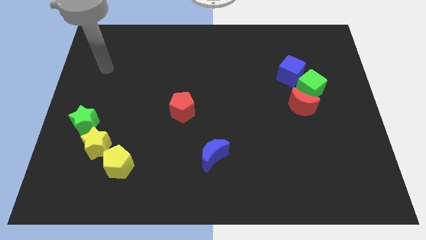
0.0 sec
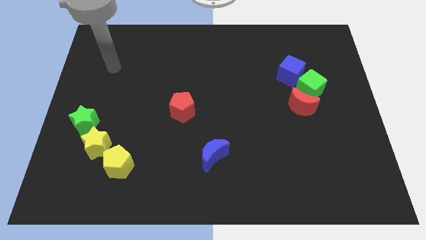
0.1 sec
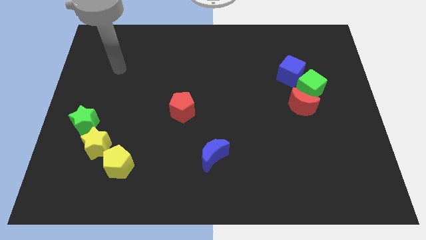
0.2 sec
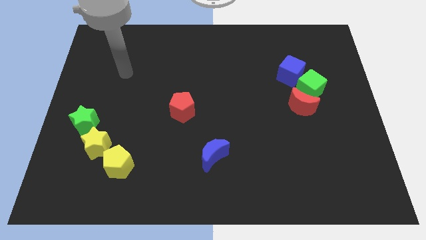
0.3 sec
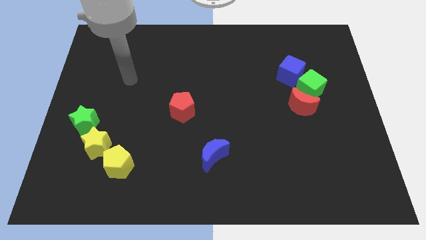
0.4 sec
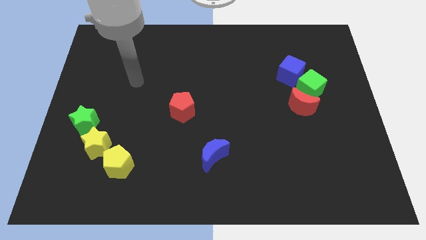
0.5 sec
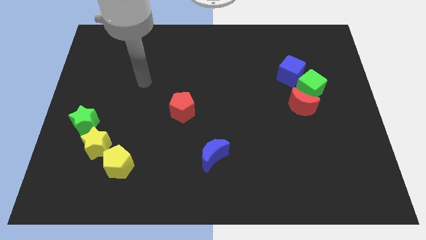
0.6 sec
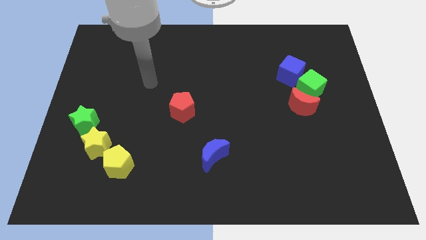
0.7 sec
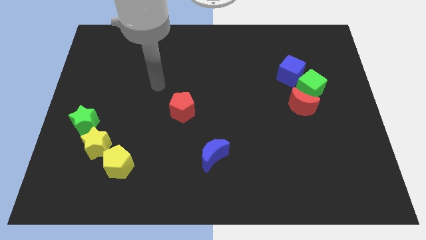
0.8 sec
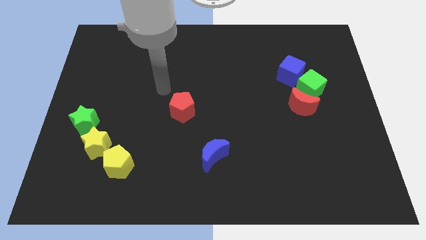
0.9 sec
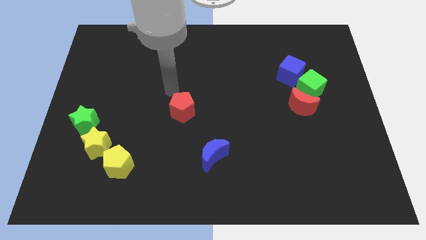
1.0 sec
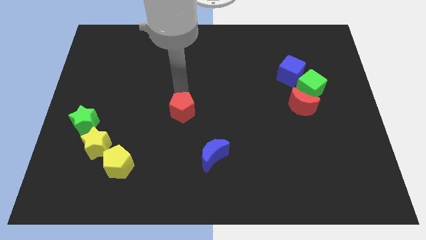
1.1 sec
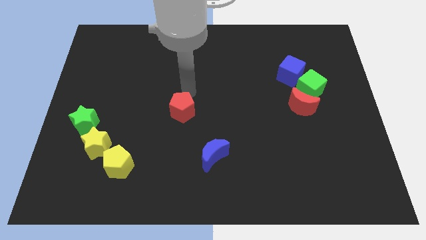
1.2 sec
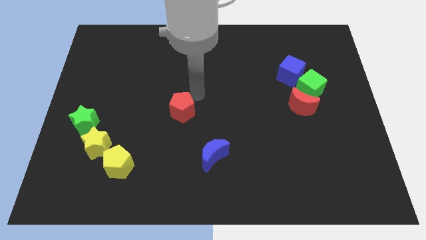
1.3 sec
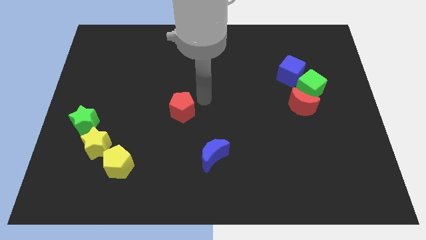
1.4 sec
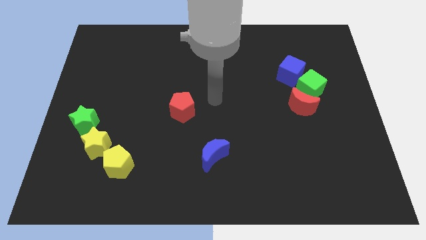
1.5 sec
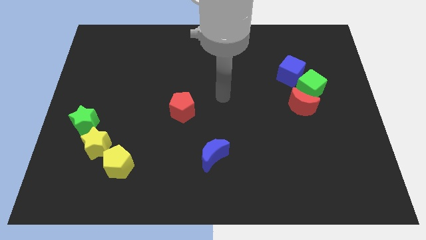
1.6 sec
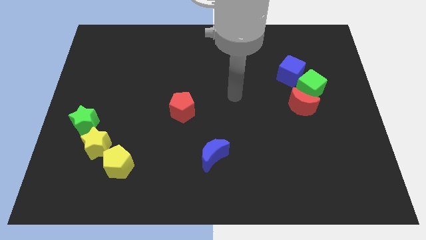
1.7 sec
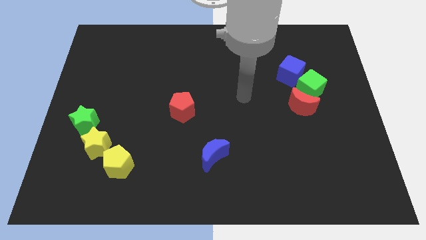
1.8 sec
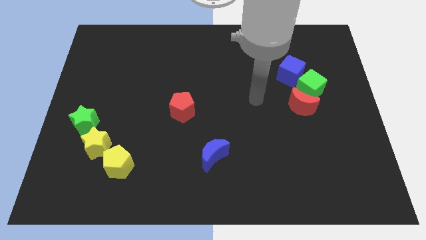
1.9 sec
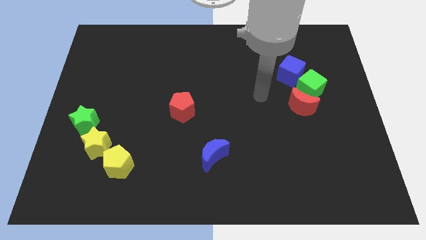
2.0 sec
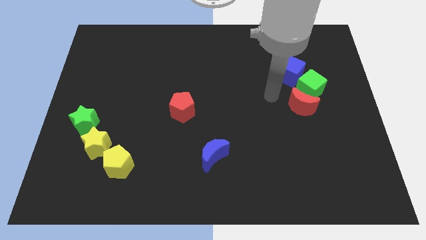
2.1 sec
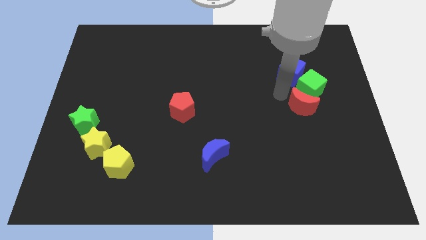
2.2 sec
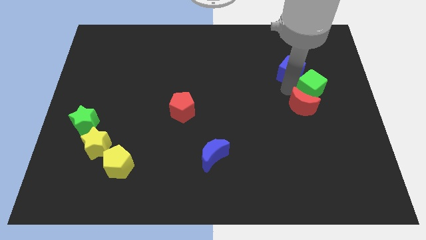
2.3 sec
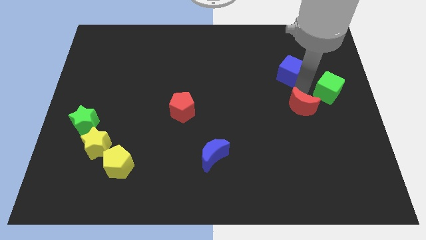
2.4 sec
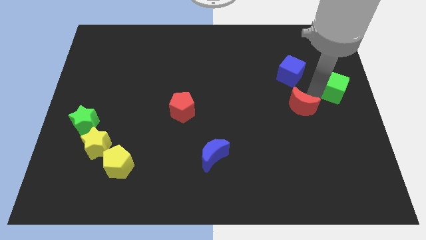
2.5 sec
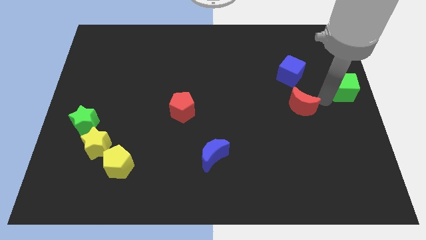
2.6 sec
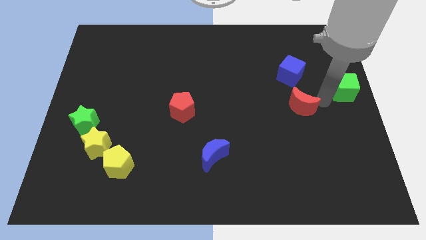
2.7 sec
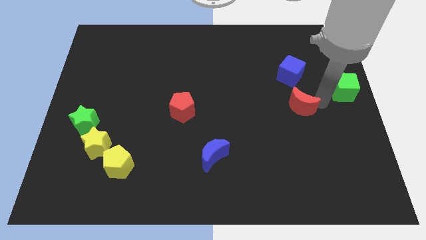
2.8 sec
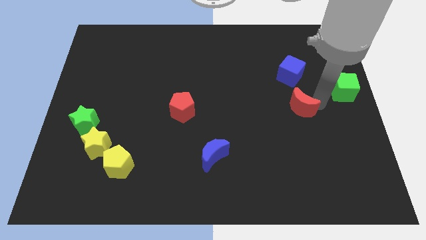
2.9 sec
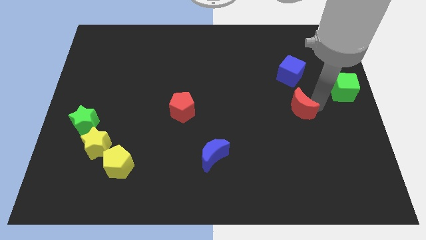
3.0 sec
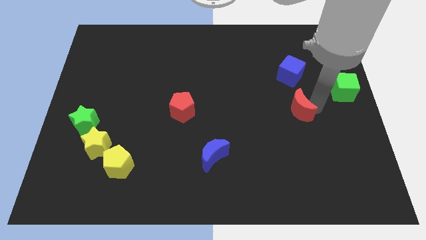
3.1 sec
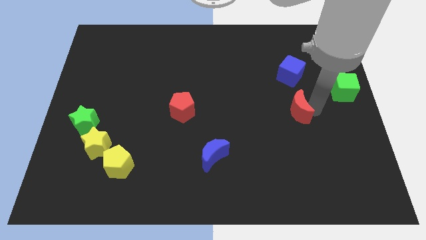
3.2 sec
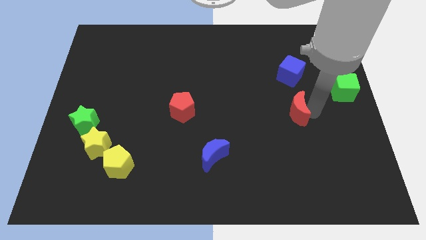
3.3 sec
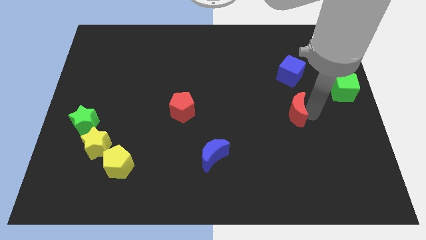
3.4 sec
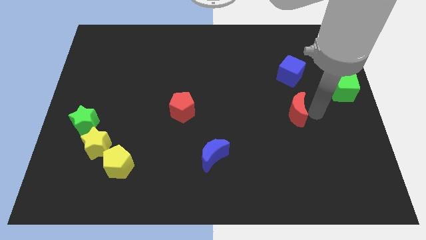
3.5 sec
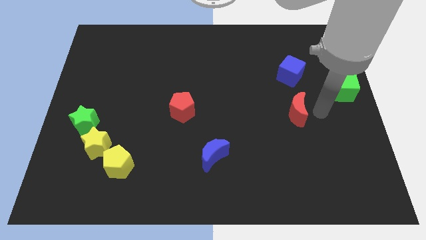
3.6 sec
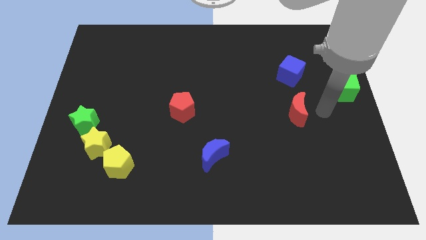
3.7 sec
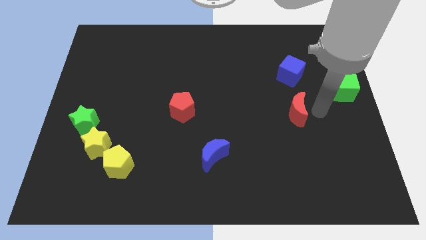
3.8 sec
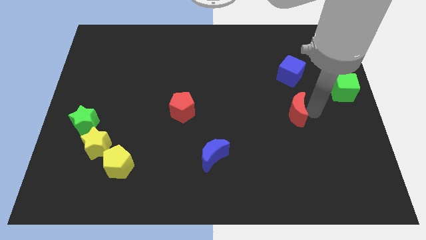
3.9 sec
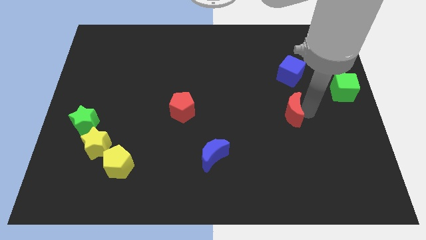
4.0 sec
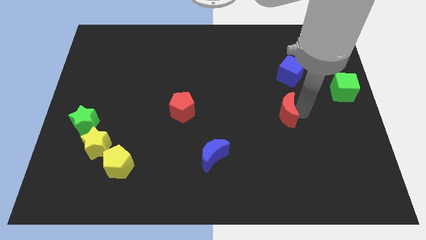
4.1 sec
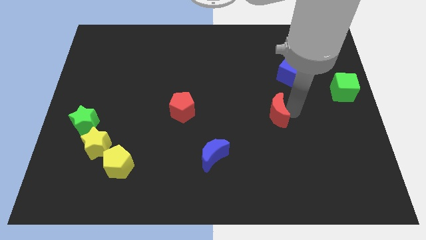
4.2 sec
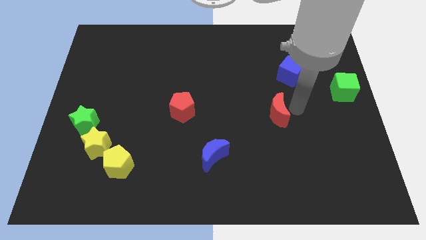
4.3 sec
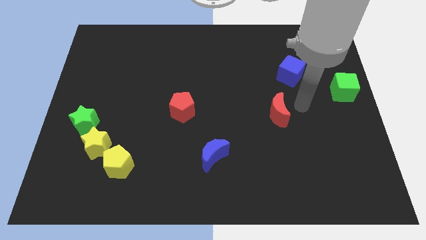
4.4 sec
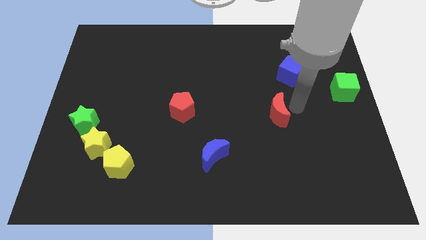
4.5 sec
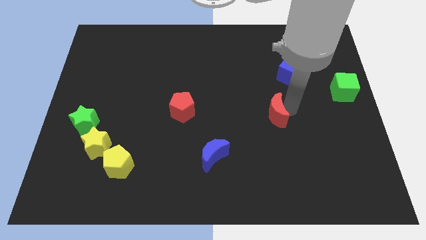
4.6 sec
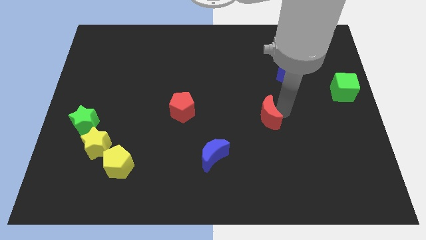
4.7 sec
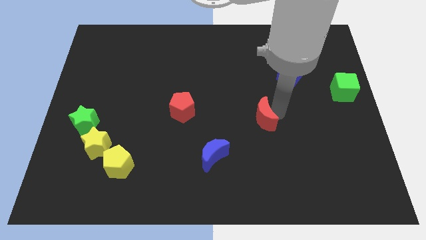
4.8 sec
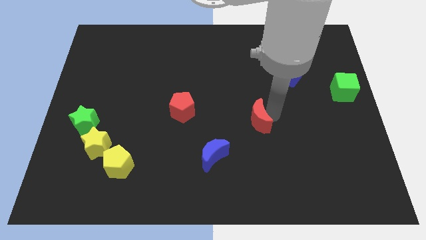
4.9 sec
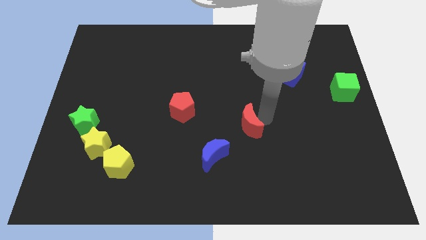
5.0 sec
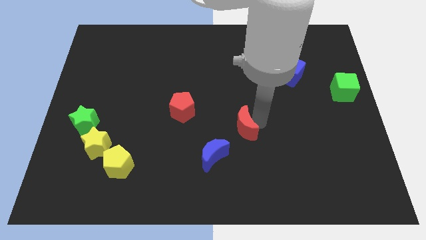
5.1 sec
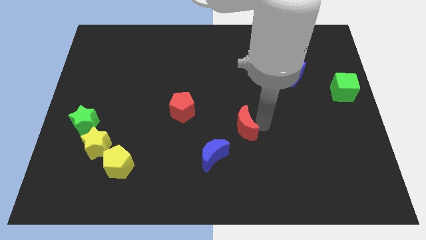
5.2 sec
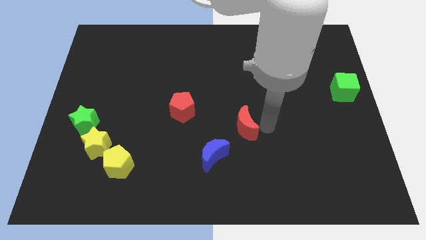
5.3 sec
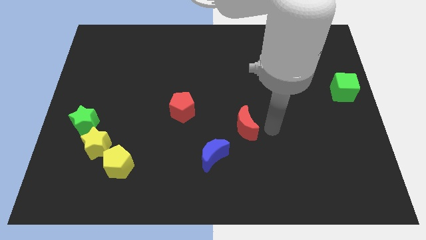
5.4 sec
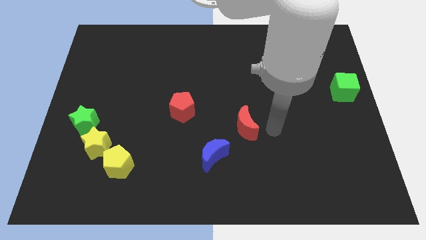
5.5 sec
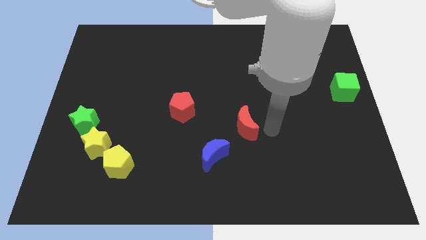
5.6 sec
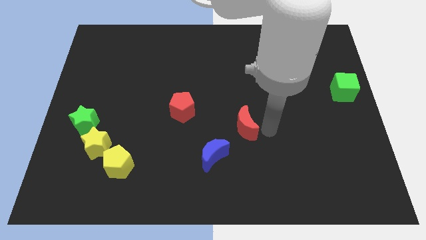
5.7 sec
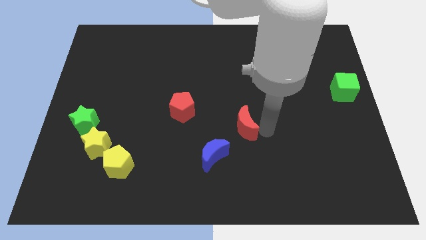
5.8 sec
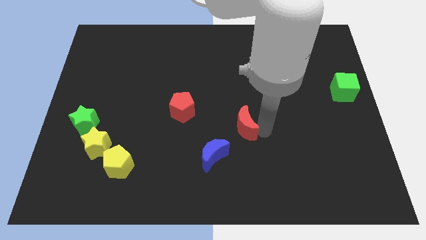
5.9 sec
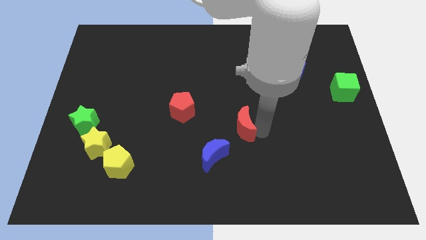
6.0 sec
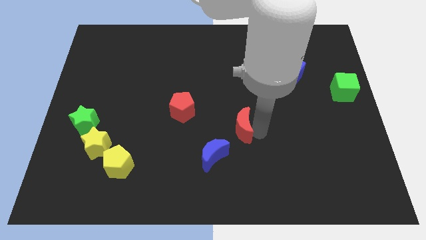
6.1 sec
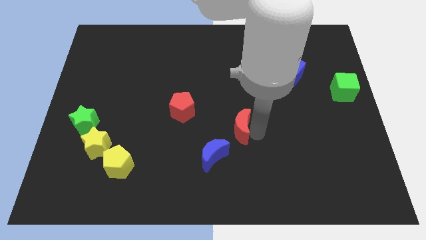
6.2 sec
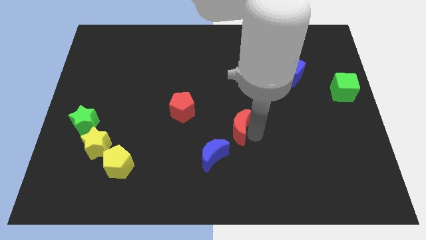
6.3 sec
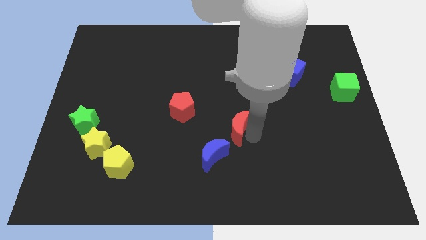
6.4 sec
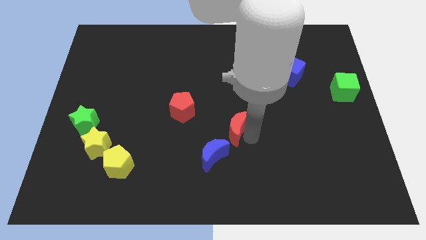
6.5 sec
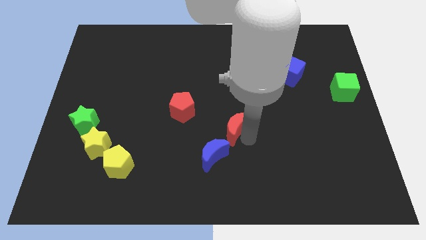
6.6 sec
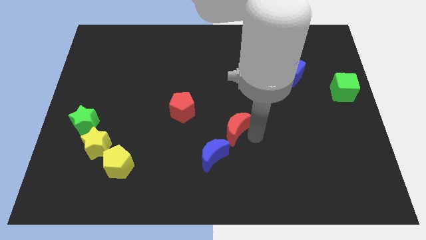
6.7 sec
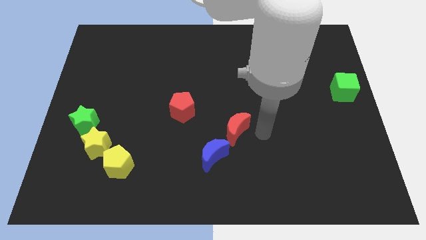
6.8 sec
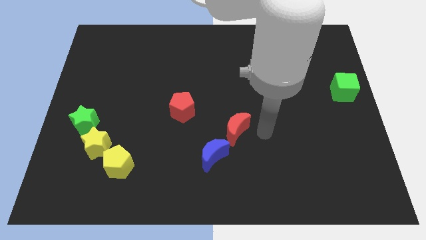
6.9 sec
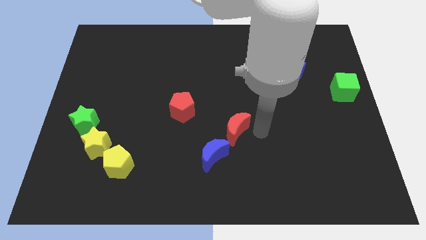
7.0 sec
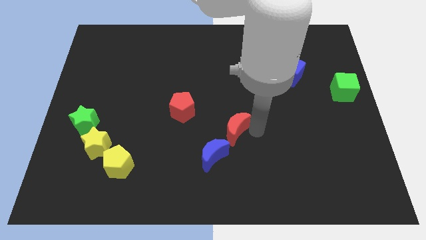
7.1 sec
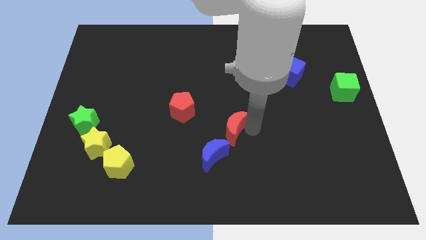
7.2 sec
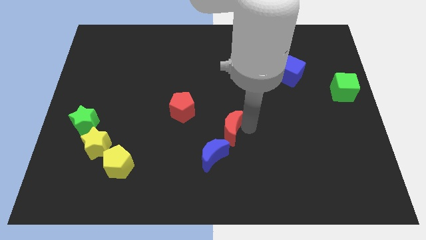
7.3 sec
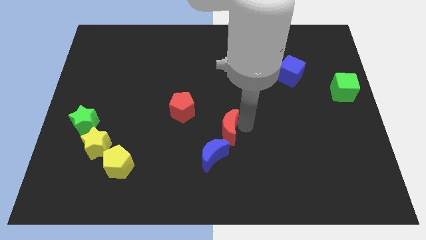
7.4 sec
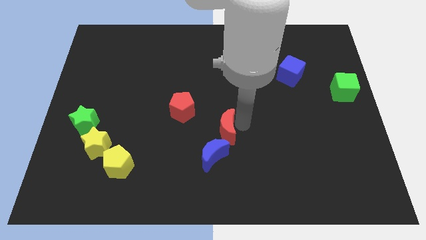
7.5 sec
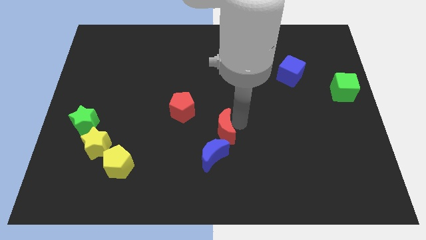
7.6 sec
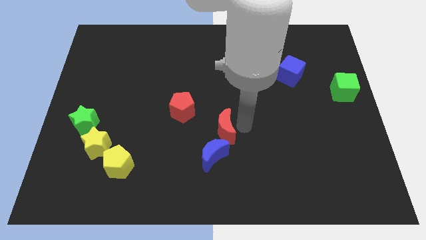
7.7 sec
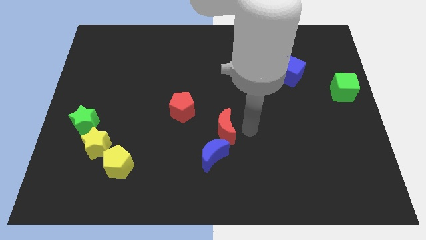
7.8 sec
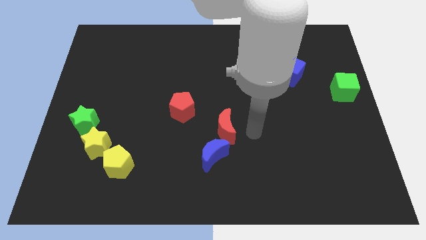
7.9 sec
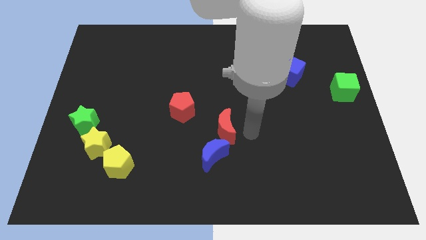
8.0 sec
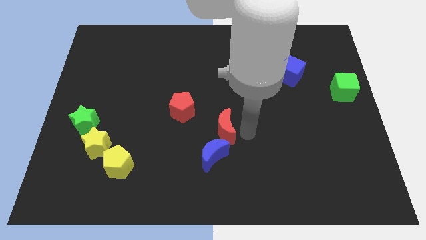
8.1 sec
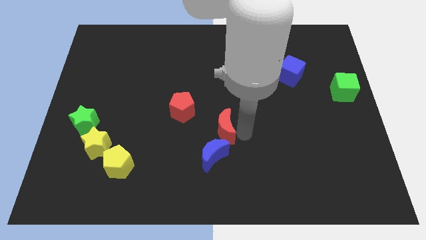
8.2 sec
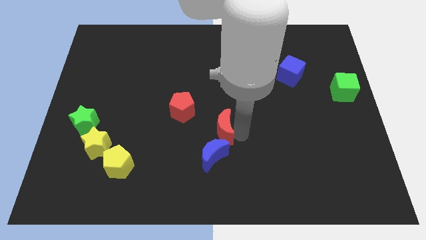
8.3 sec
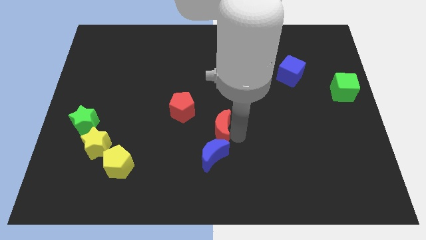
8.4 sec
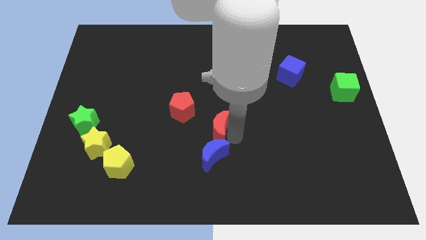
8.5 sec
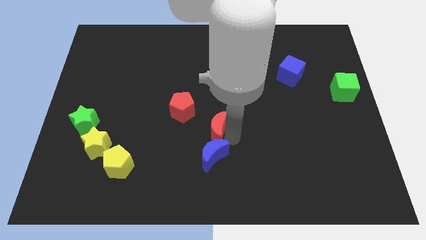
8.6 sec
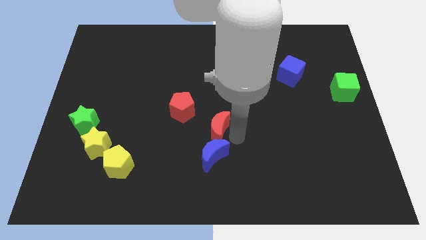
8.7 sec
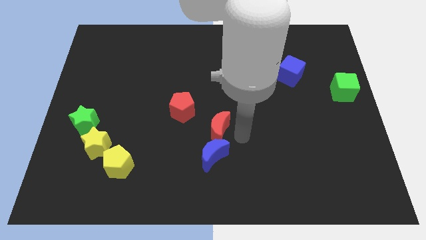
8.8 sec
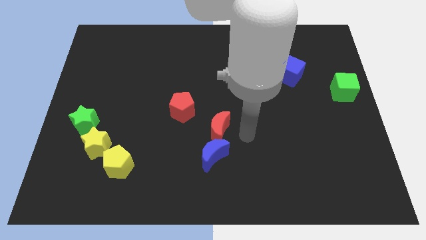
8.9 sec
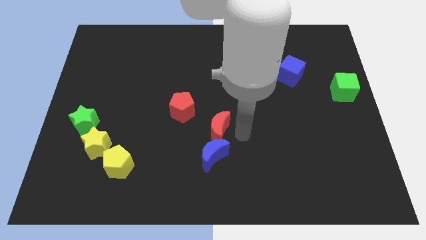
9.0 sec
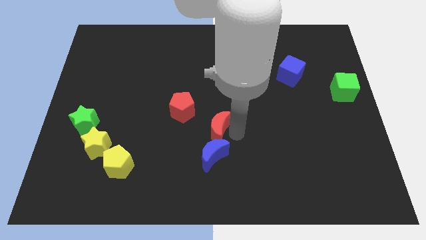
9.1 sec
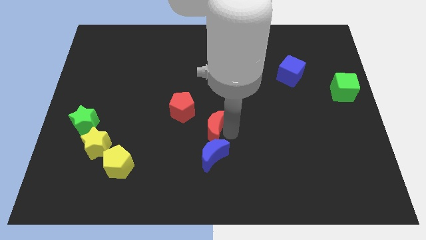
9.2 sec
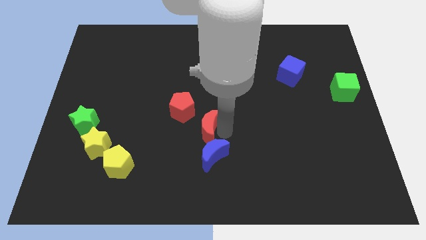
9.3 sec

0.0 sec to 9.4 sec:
slide the red moon left
